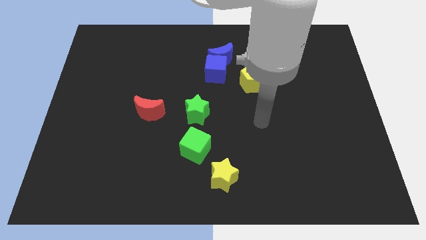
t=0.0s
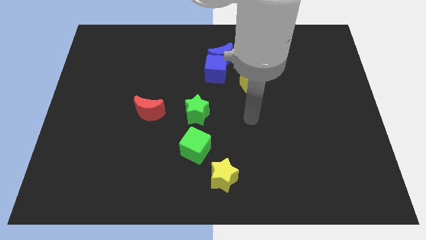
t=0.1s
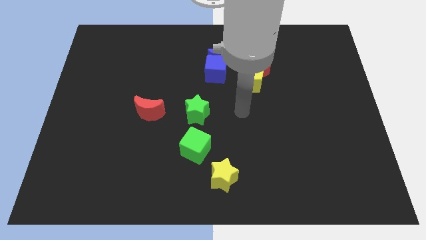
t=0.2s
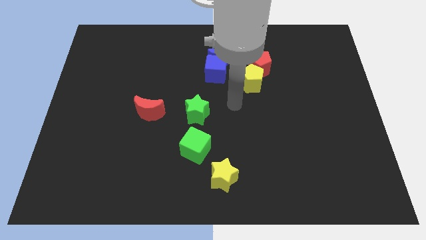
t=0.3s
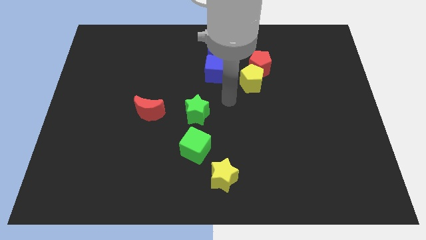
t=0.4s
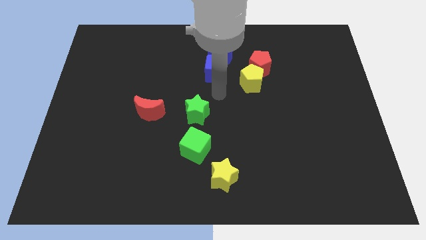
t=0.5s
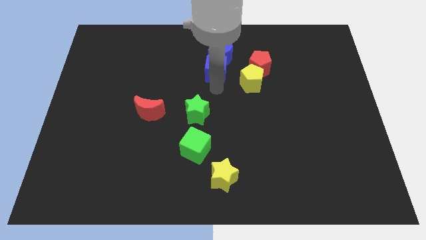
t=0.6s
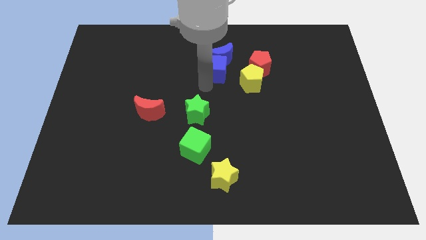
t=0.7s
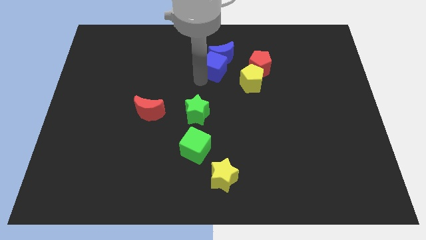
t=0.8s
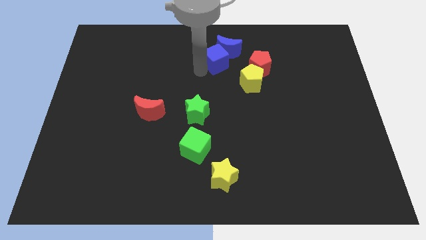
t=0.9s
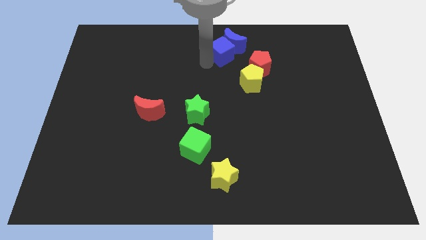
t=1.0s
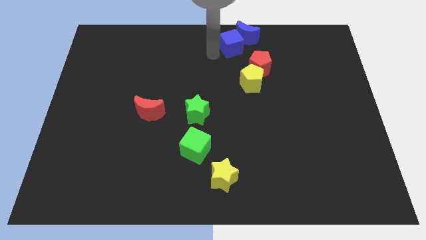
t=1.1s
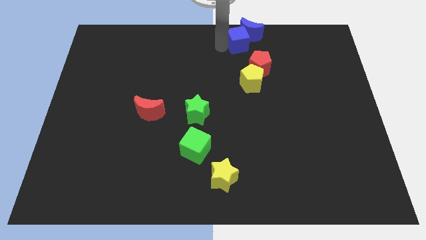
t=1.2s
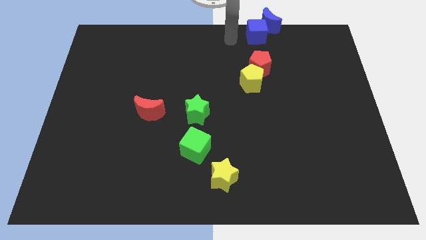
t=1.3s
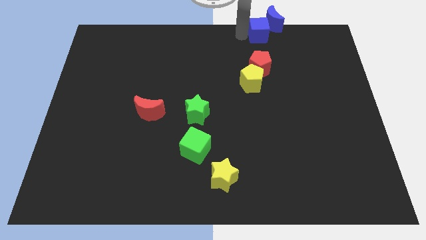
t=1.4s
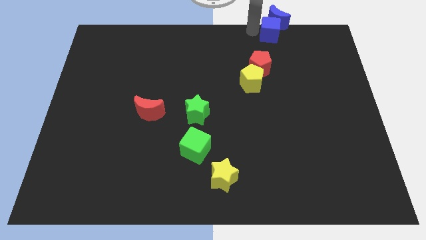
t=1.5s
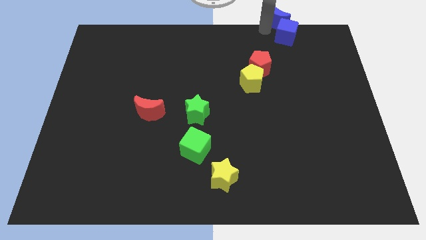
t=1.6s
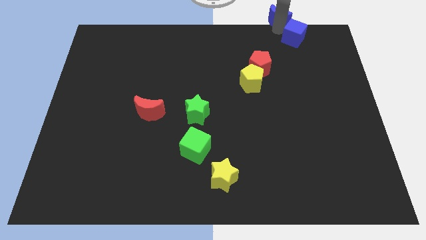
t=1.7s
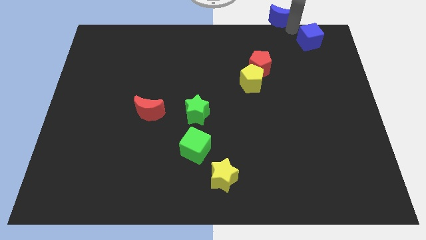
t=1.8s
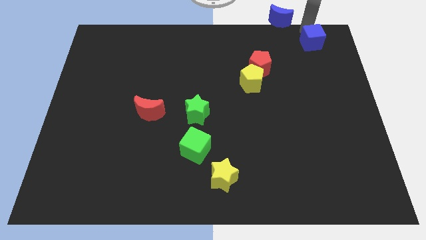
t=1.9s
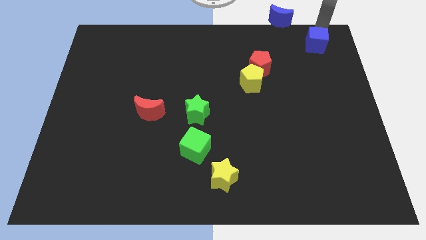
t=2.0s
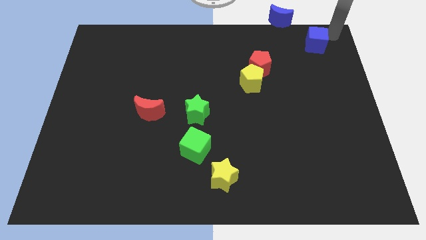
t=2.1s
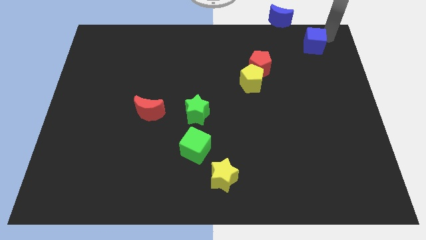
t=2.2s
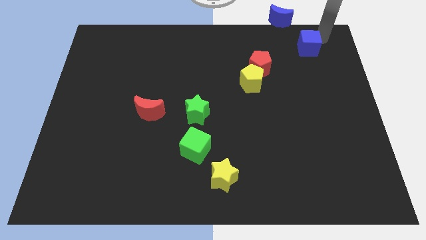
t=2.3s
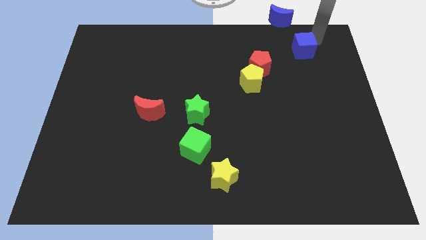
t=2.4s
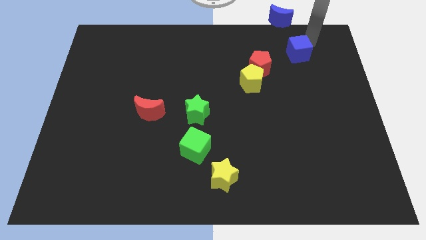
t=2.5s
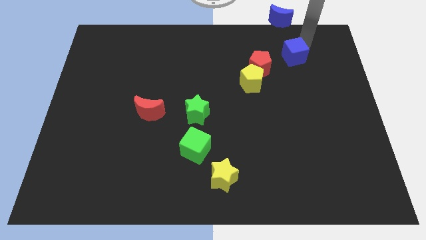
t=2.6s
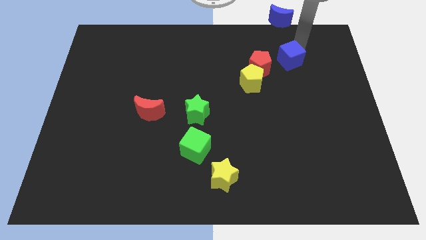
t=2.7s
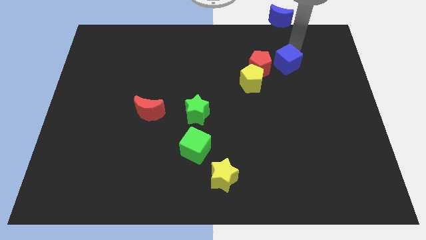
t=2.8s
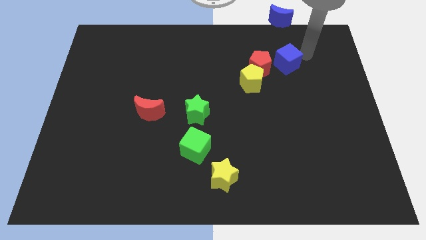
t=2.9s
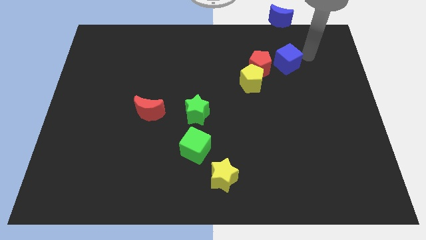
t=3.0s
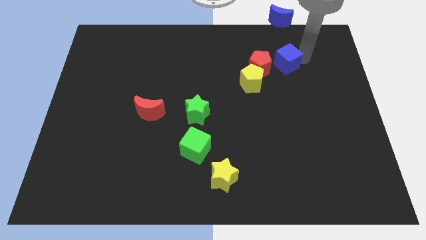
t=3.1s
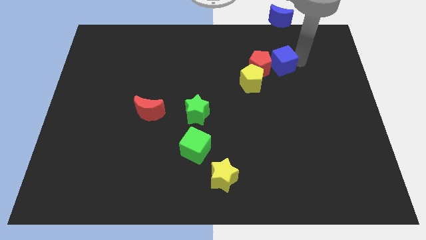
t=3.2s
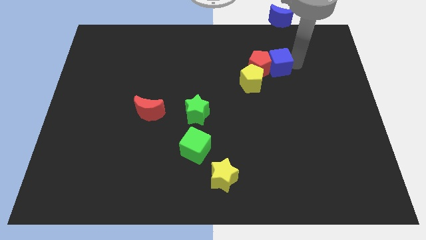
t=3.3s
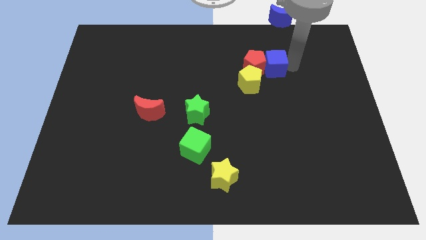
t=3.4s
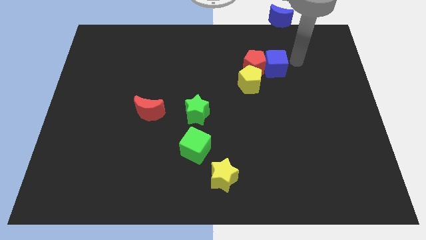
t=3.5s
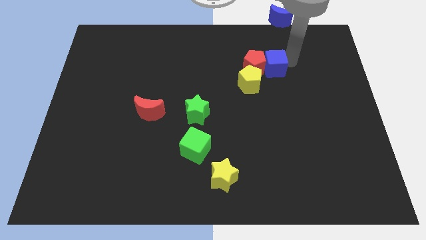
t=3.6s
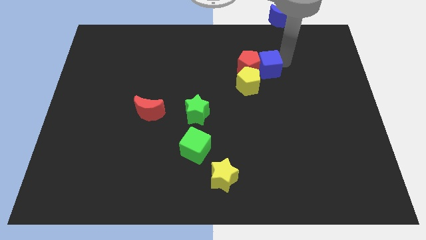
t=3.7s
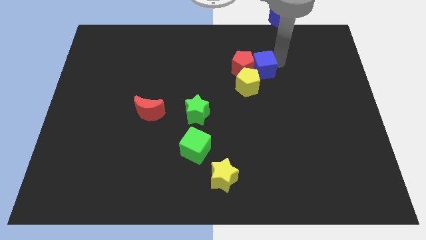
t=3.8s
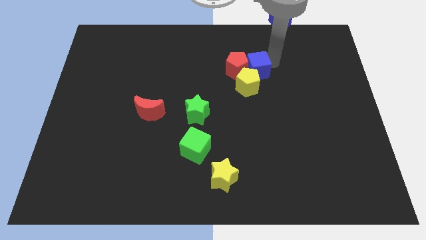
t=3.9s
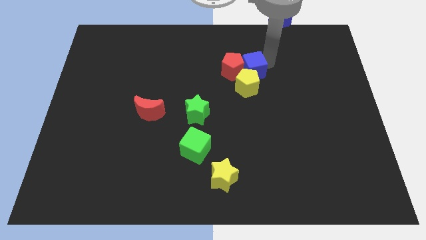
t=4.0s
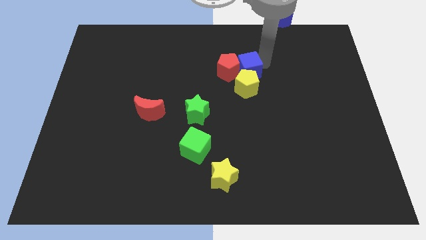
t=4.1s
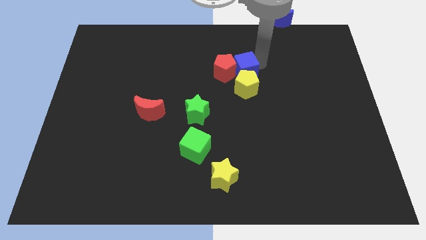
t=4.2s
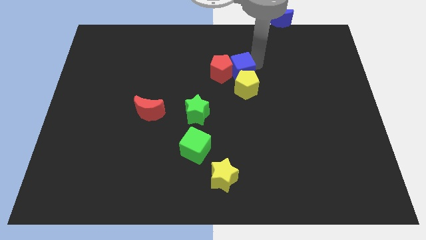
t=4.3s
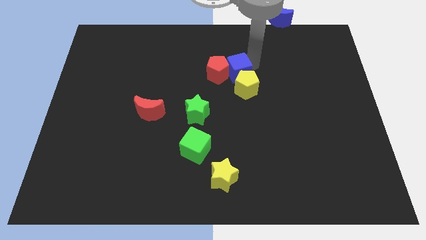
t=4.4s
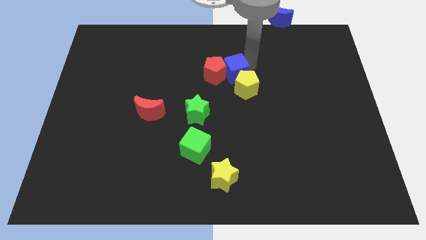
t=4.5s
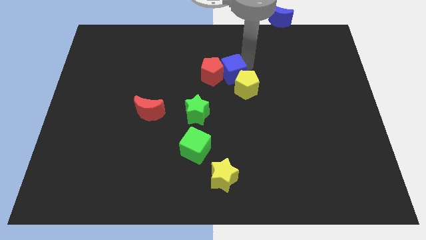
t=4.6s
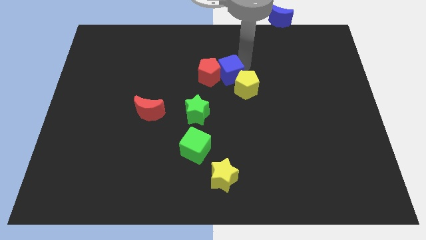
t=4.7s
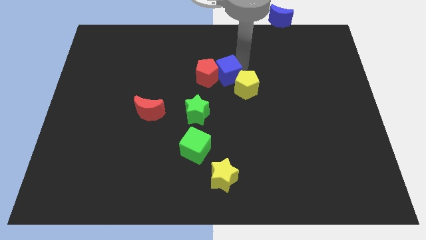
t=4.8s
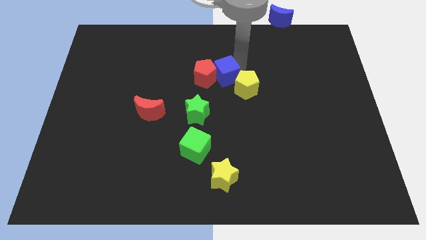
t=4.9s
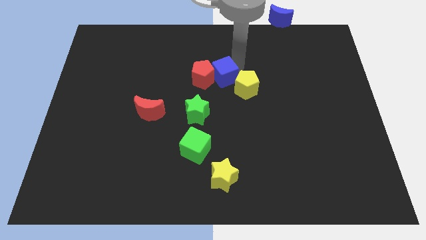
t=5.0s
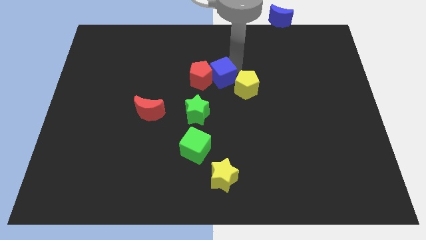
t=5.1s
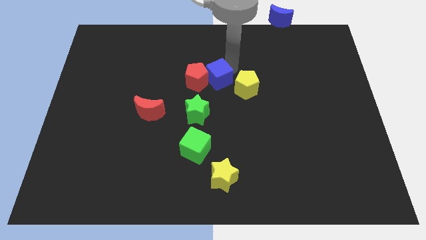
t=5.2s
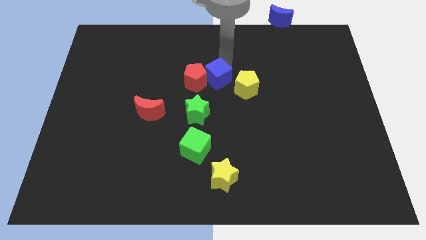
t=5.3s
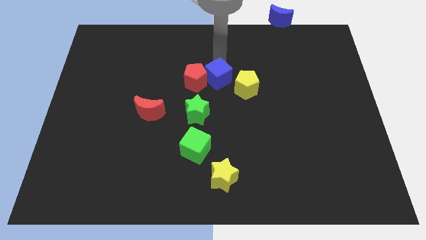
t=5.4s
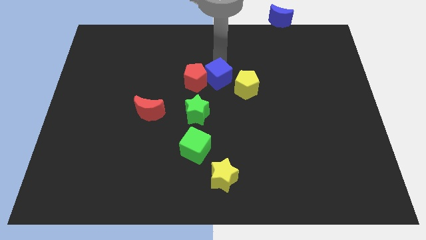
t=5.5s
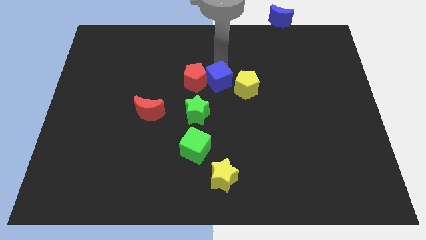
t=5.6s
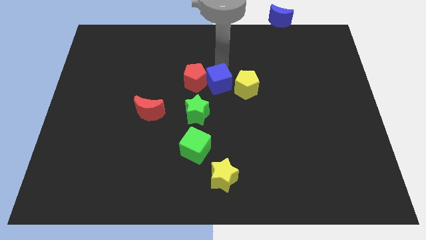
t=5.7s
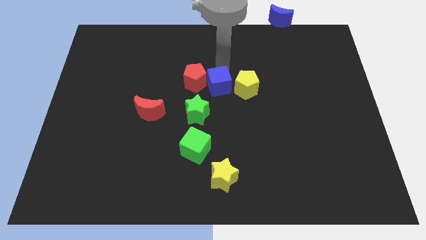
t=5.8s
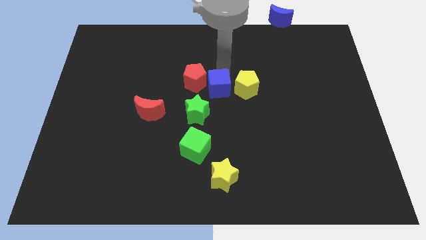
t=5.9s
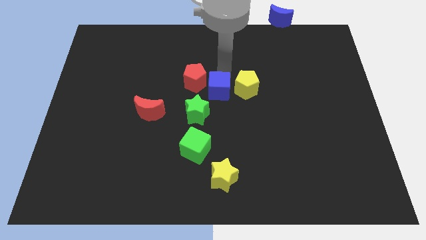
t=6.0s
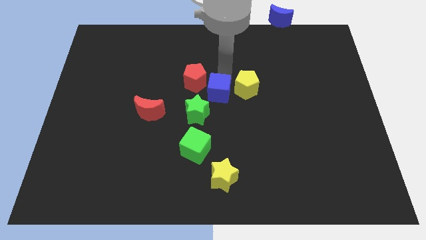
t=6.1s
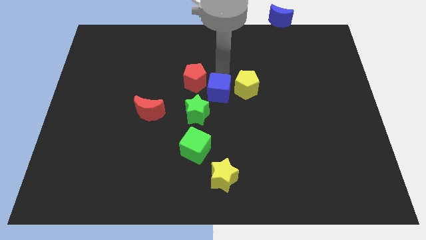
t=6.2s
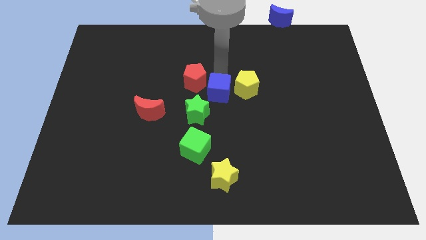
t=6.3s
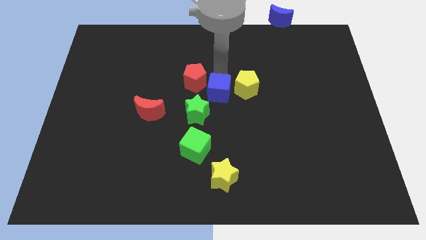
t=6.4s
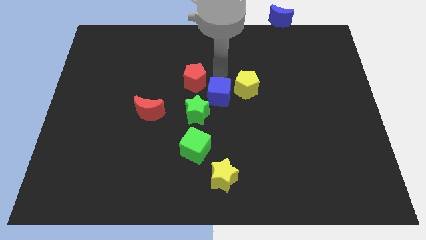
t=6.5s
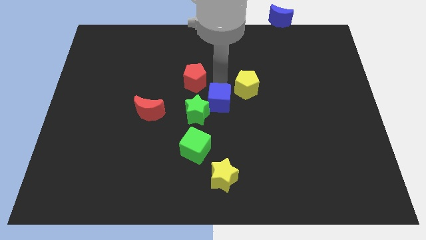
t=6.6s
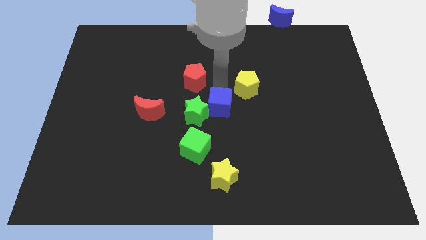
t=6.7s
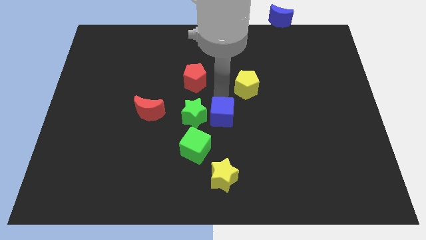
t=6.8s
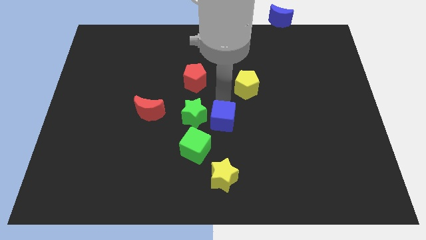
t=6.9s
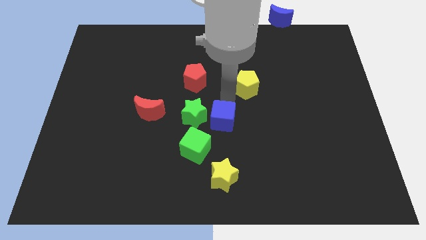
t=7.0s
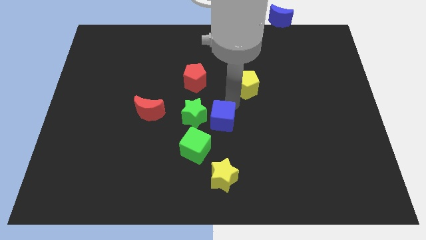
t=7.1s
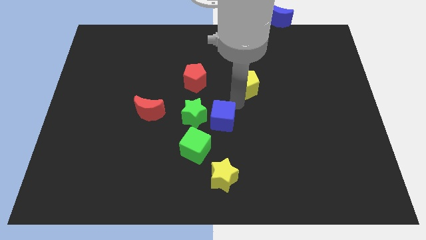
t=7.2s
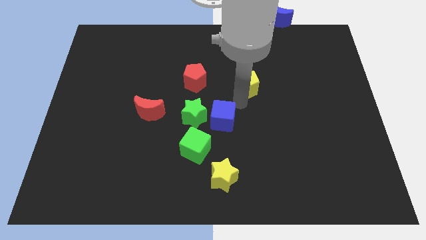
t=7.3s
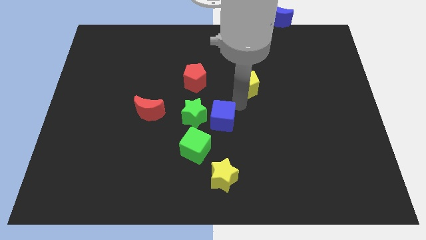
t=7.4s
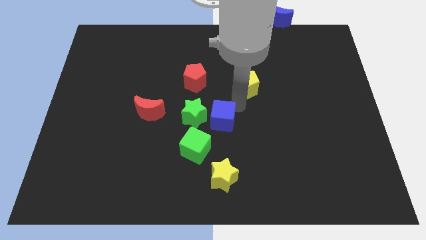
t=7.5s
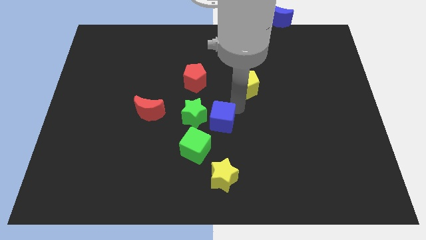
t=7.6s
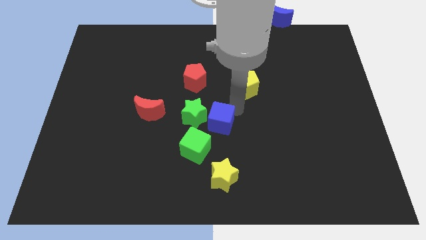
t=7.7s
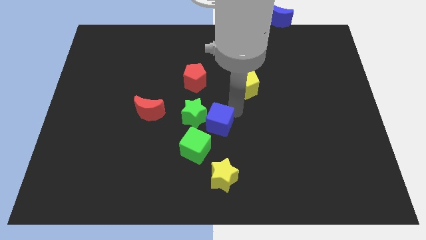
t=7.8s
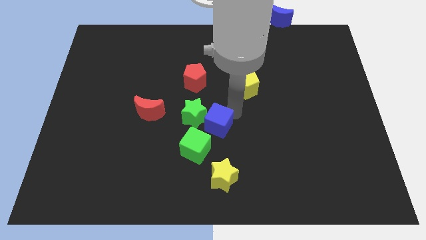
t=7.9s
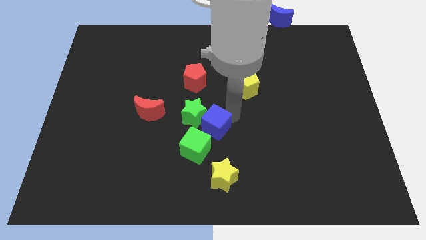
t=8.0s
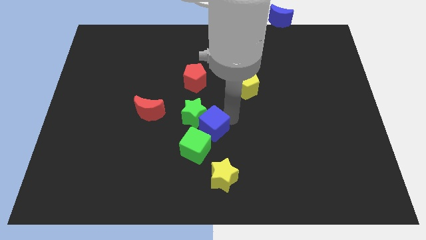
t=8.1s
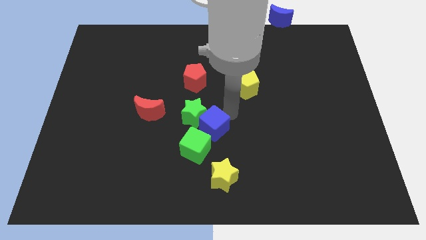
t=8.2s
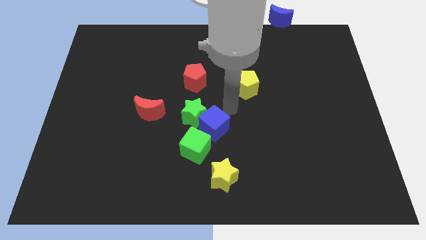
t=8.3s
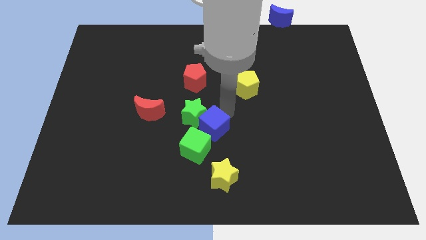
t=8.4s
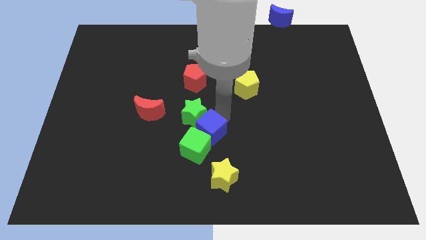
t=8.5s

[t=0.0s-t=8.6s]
move the blue cube next to the green cube
